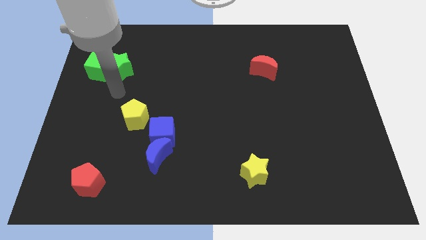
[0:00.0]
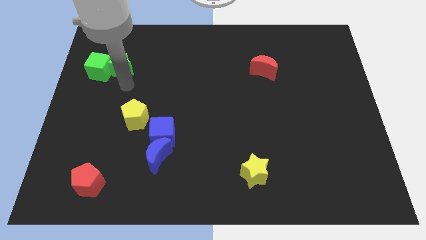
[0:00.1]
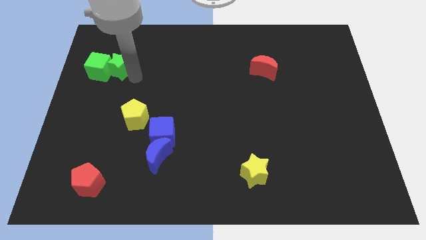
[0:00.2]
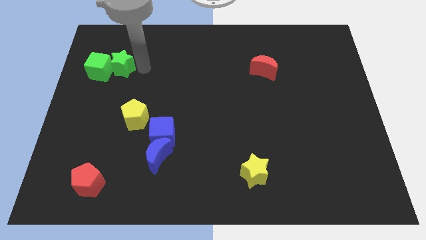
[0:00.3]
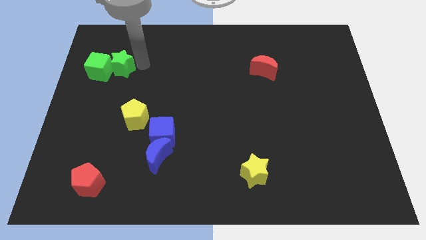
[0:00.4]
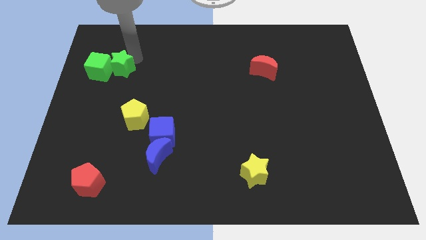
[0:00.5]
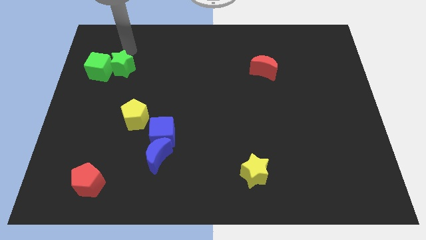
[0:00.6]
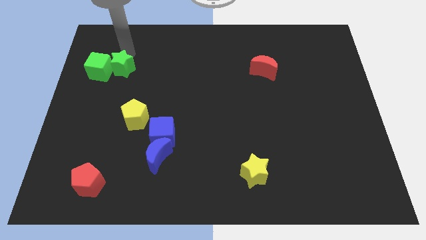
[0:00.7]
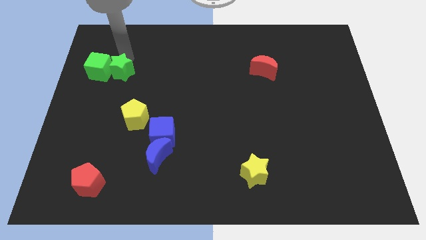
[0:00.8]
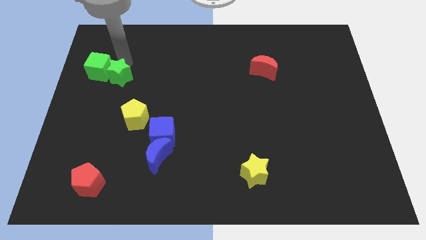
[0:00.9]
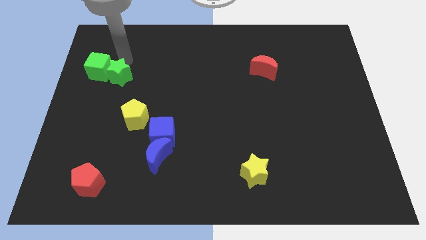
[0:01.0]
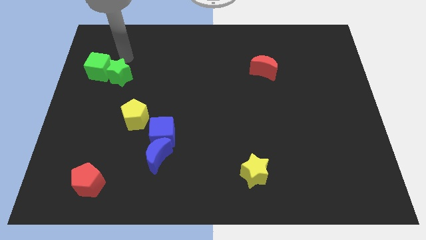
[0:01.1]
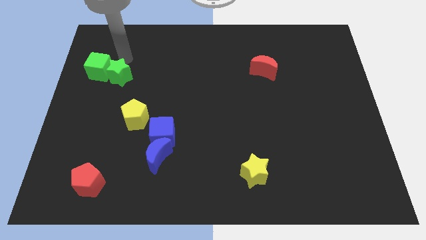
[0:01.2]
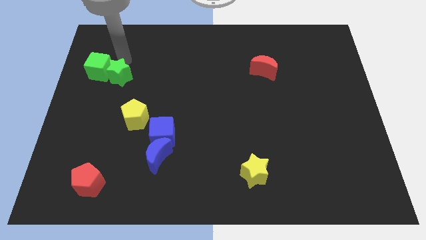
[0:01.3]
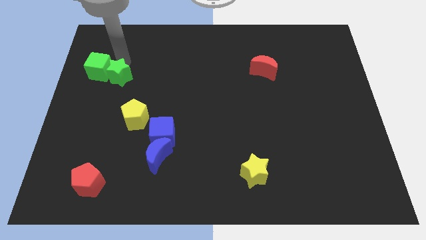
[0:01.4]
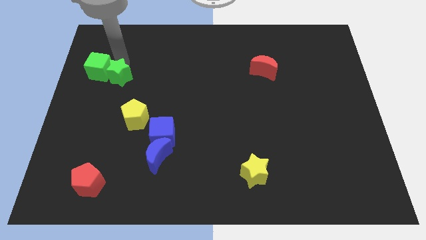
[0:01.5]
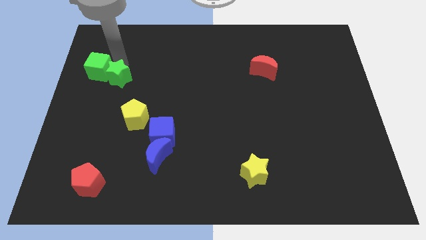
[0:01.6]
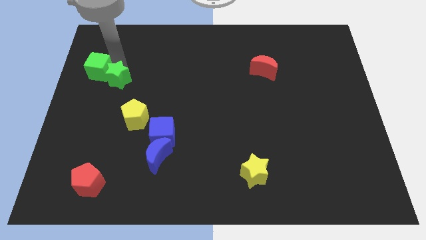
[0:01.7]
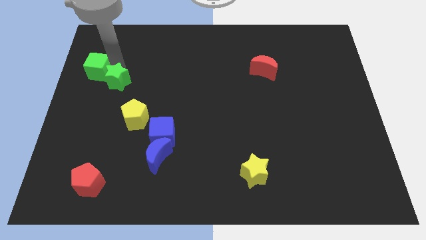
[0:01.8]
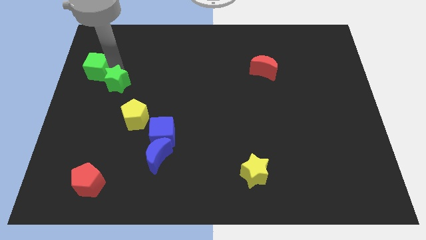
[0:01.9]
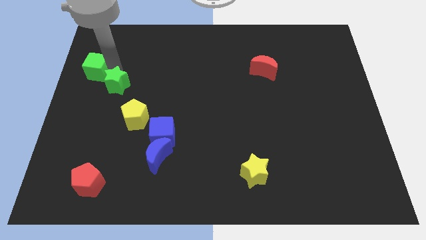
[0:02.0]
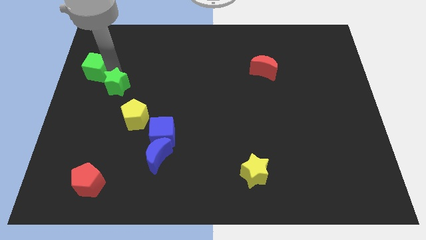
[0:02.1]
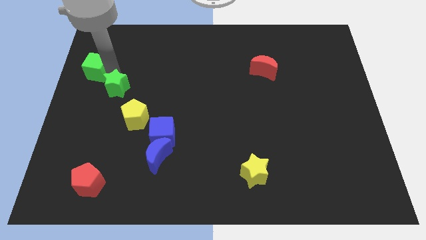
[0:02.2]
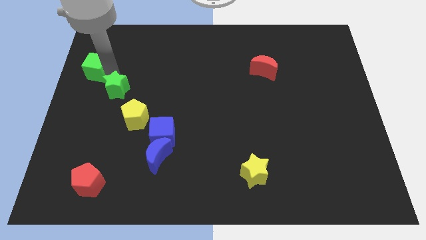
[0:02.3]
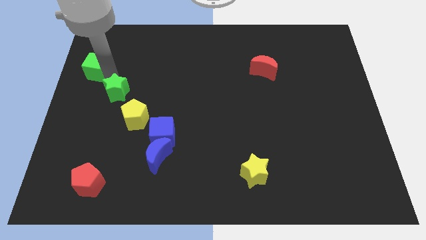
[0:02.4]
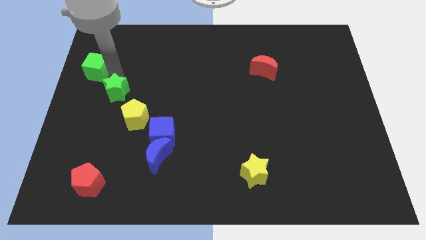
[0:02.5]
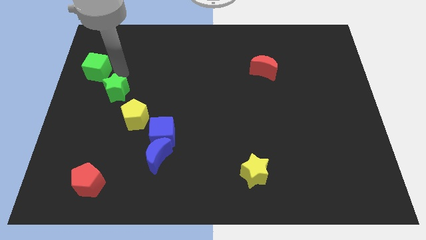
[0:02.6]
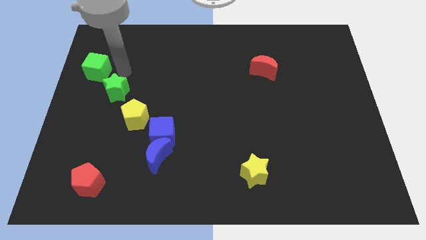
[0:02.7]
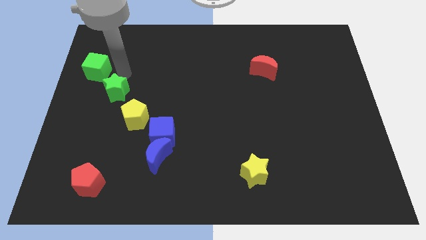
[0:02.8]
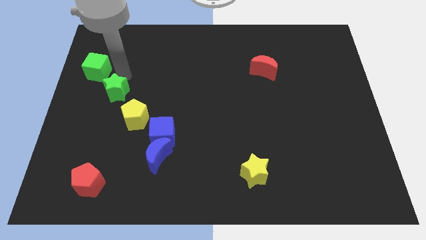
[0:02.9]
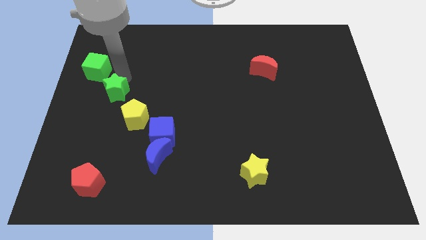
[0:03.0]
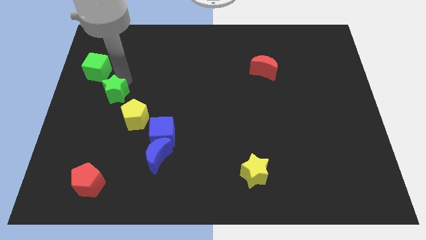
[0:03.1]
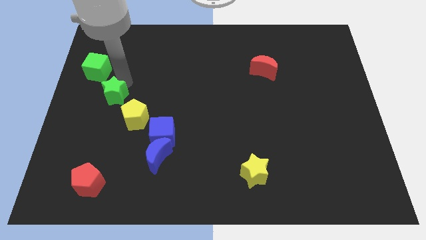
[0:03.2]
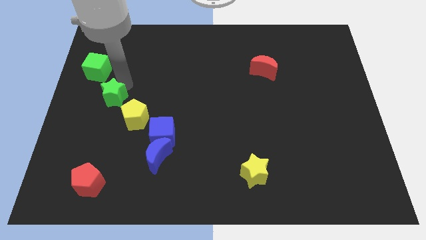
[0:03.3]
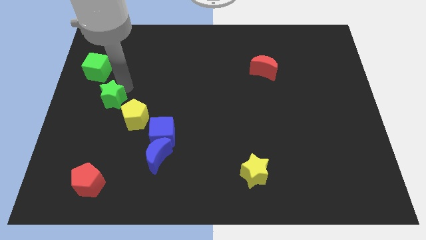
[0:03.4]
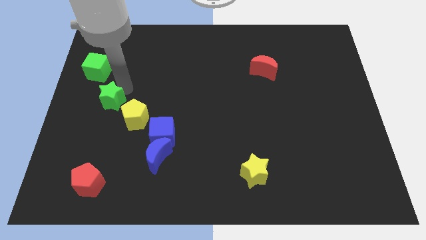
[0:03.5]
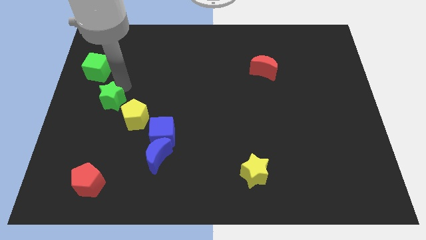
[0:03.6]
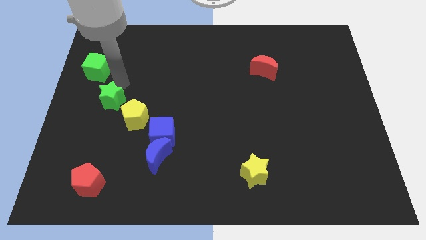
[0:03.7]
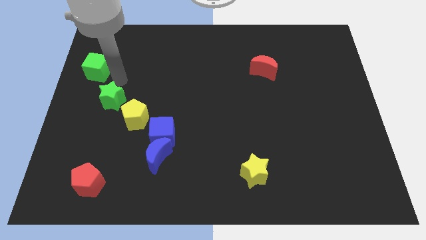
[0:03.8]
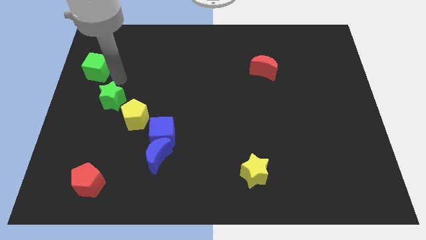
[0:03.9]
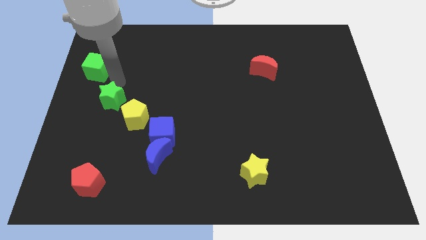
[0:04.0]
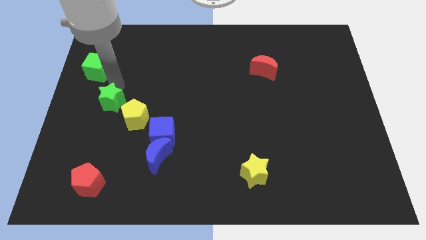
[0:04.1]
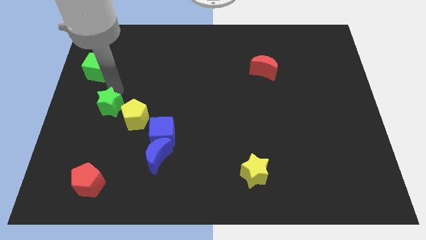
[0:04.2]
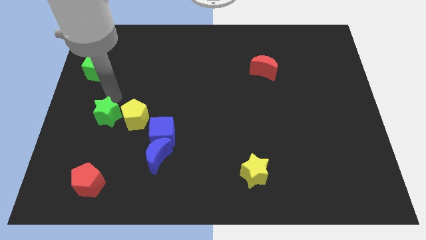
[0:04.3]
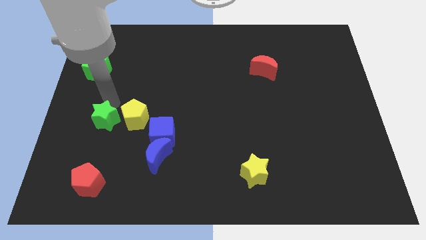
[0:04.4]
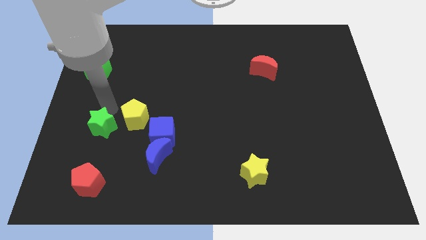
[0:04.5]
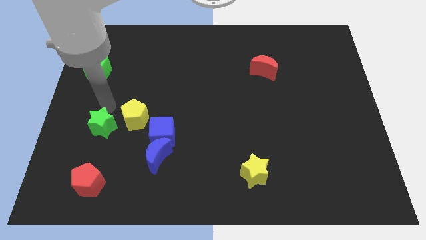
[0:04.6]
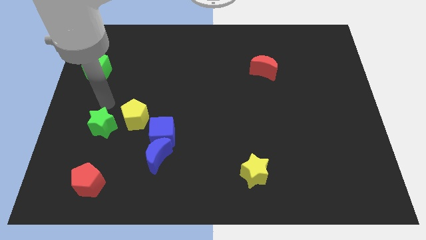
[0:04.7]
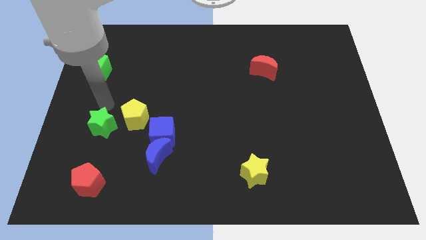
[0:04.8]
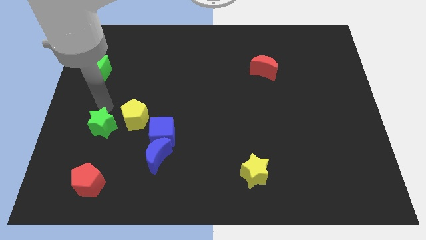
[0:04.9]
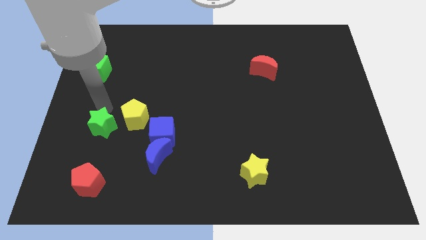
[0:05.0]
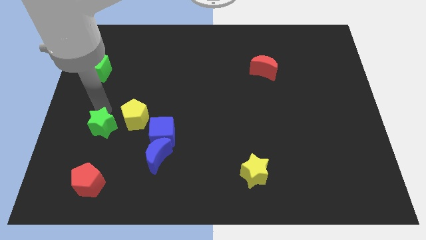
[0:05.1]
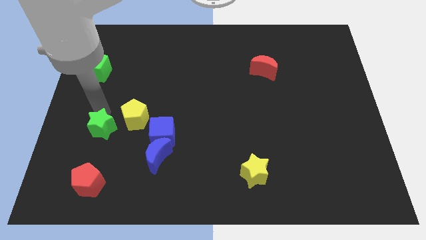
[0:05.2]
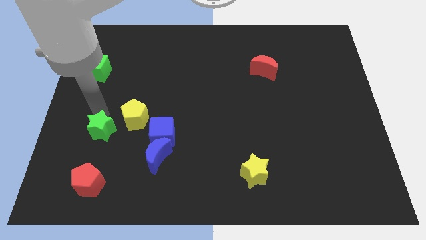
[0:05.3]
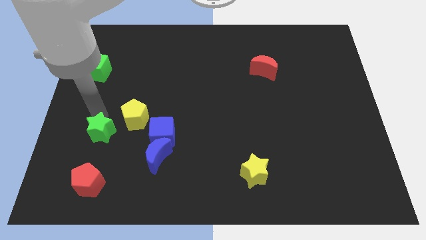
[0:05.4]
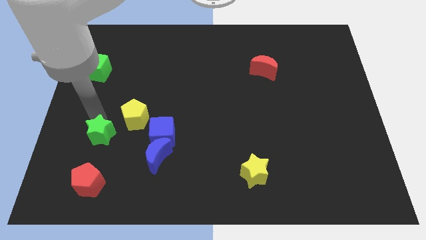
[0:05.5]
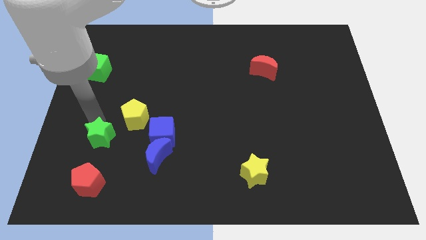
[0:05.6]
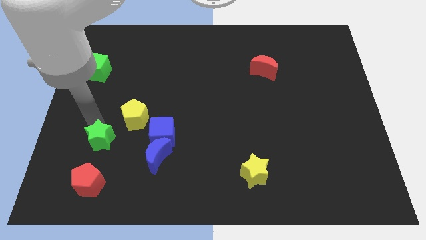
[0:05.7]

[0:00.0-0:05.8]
move the green star left of the blue moon

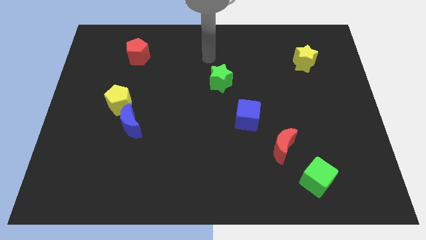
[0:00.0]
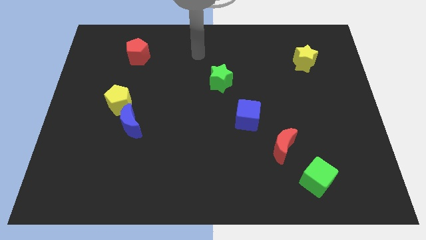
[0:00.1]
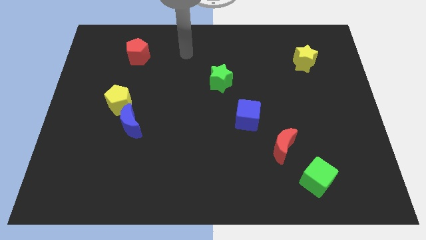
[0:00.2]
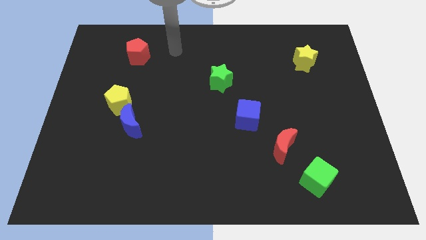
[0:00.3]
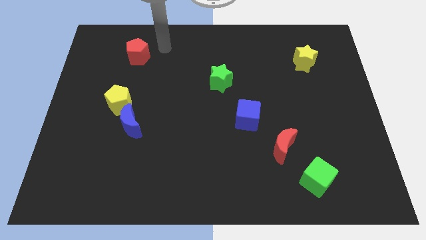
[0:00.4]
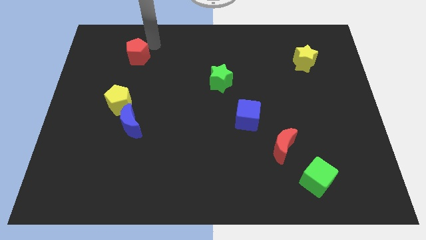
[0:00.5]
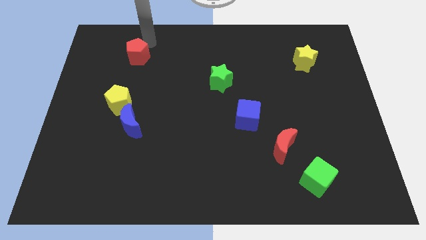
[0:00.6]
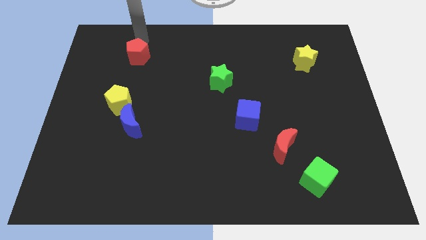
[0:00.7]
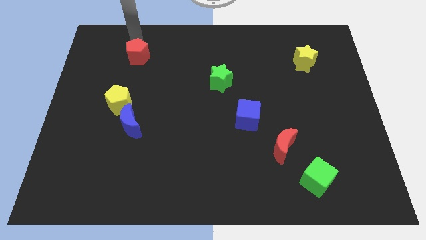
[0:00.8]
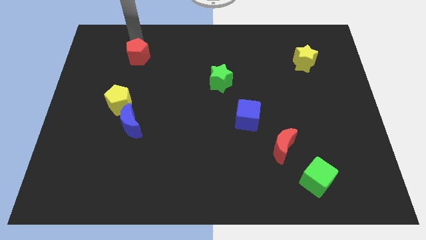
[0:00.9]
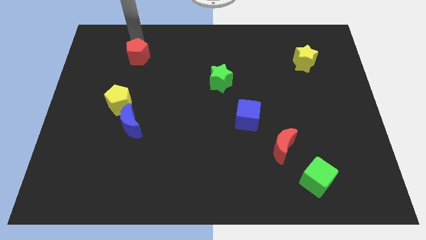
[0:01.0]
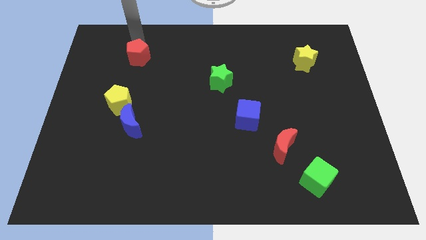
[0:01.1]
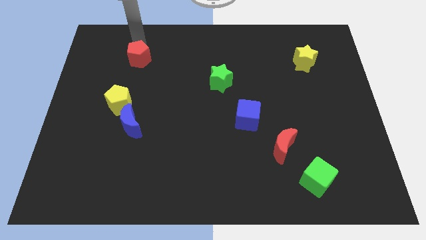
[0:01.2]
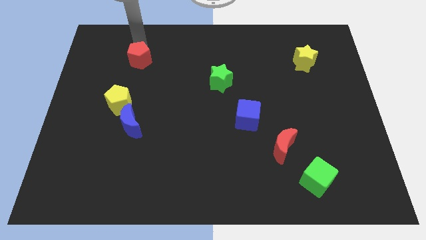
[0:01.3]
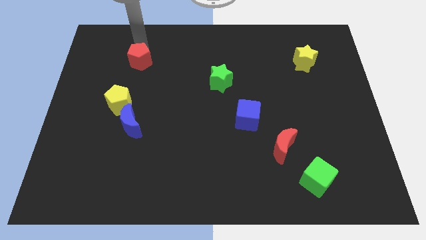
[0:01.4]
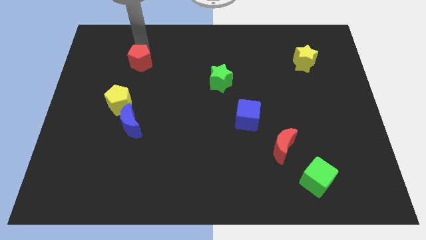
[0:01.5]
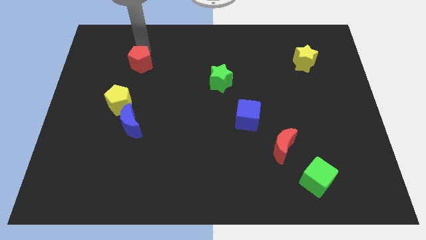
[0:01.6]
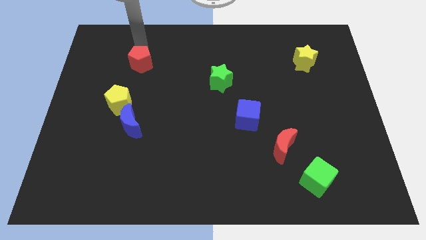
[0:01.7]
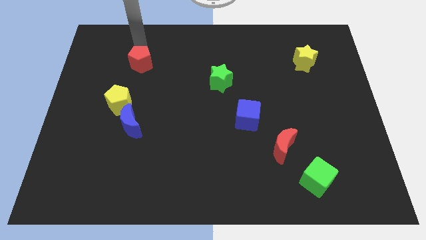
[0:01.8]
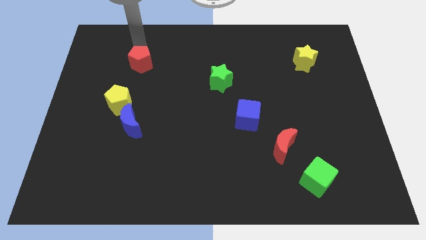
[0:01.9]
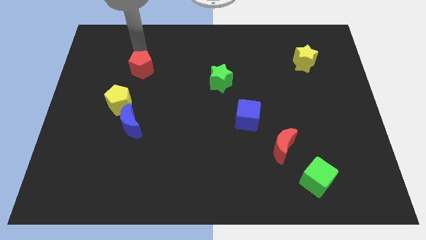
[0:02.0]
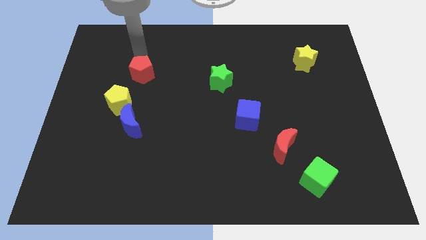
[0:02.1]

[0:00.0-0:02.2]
push the red pentagon diagonally up and to the right of the yellow pentagon
